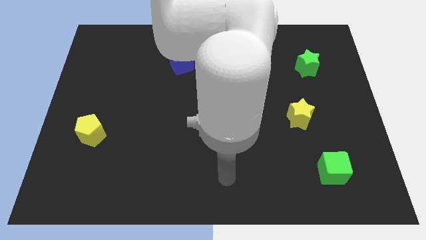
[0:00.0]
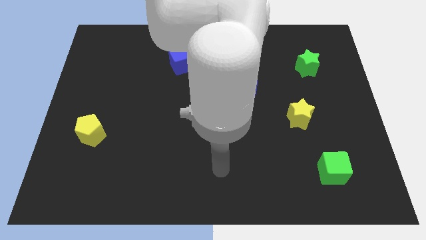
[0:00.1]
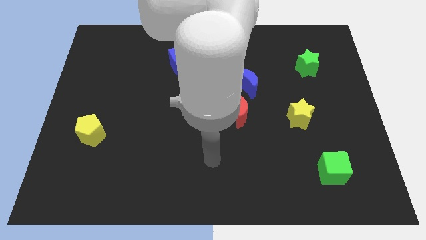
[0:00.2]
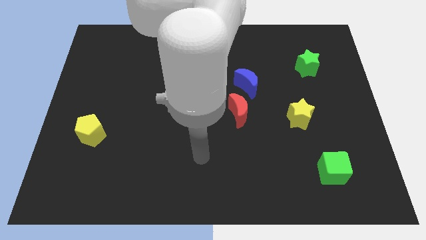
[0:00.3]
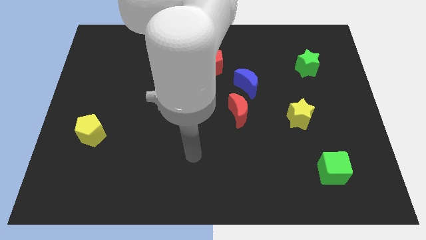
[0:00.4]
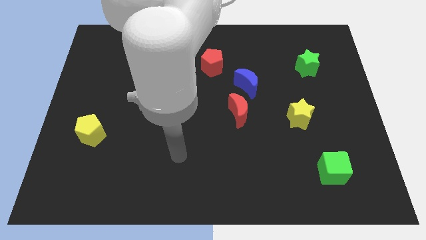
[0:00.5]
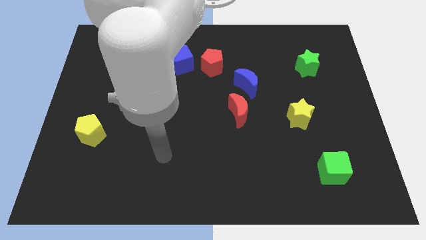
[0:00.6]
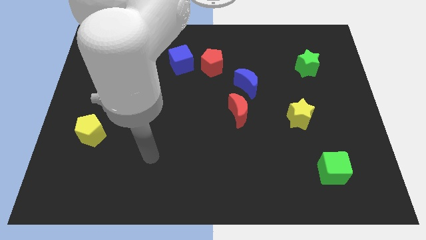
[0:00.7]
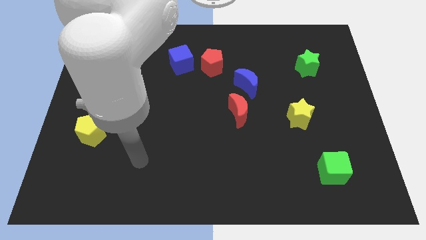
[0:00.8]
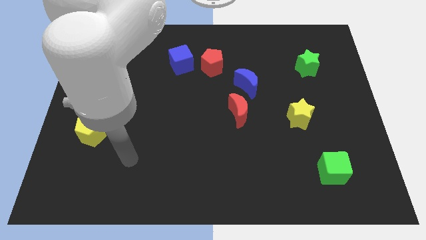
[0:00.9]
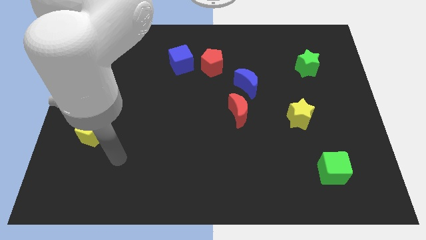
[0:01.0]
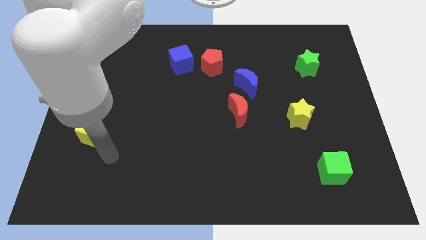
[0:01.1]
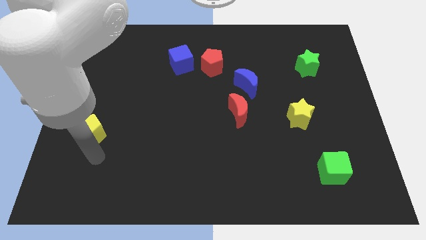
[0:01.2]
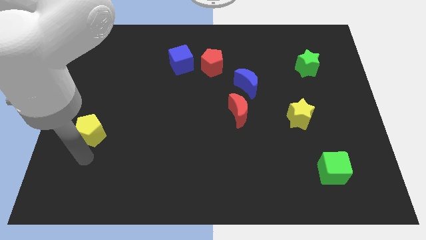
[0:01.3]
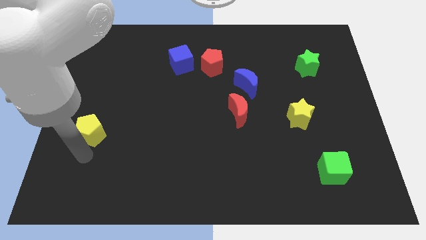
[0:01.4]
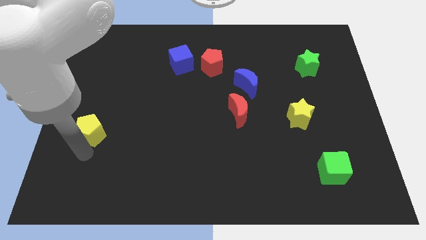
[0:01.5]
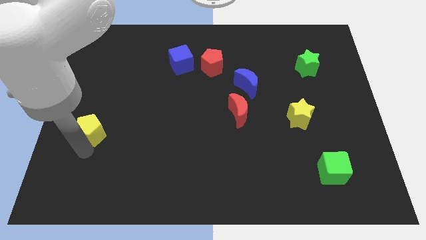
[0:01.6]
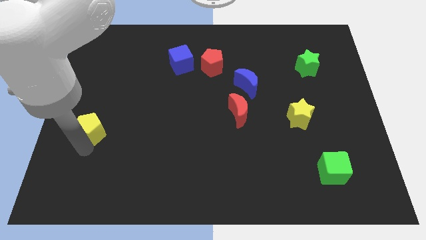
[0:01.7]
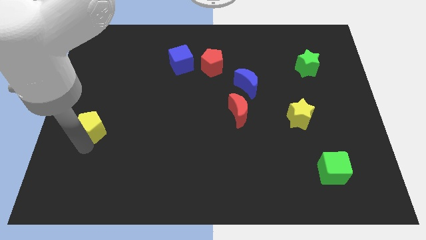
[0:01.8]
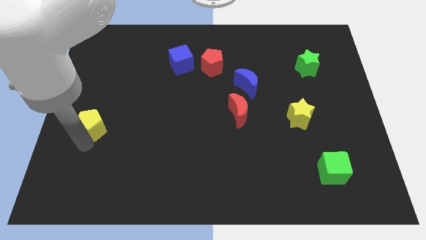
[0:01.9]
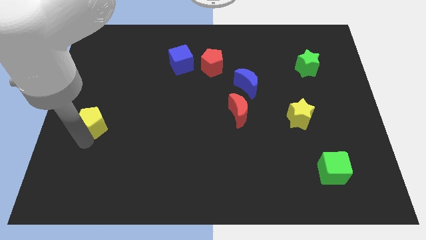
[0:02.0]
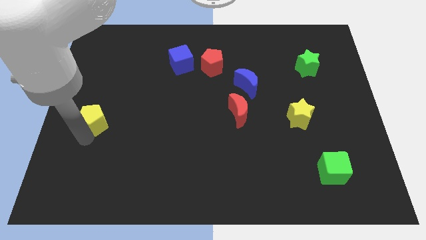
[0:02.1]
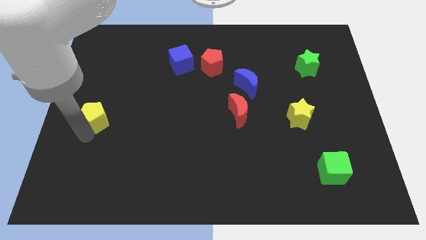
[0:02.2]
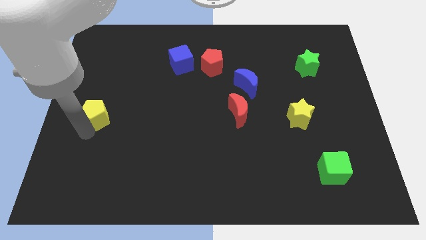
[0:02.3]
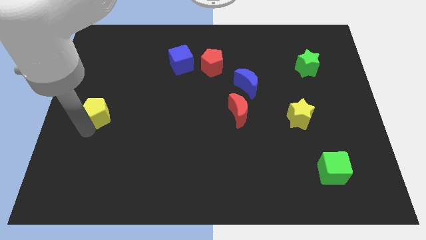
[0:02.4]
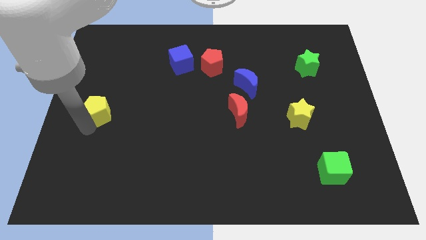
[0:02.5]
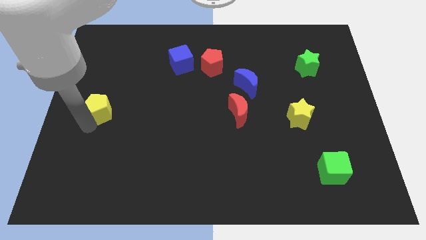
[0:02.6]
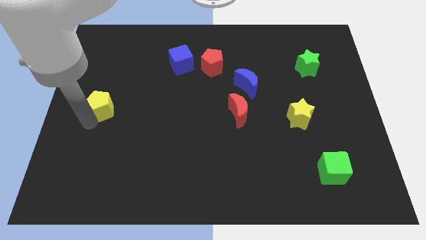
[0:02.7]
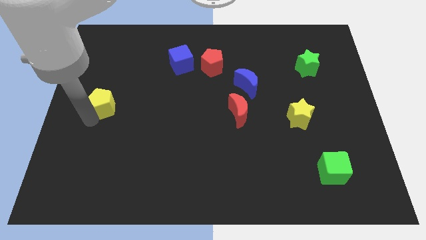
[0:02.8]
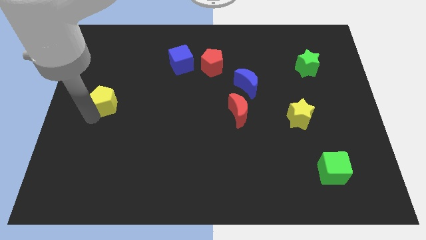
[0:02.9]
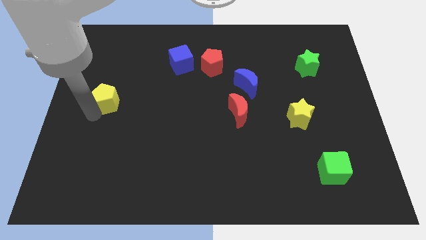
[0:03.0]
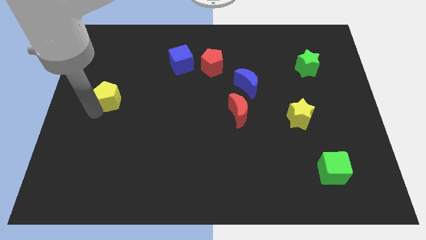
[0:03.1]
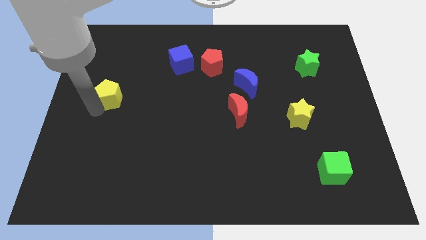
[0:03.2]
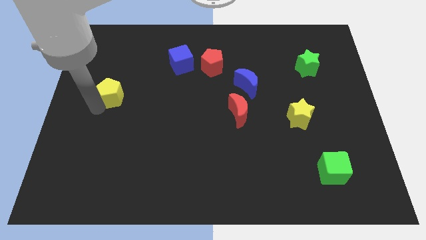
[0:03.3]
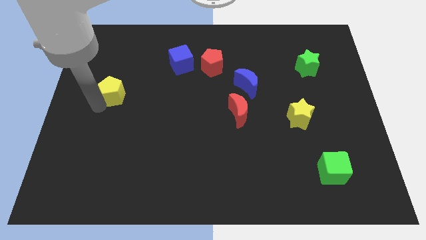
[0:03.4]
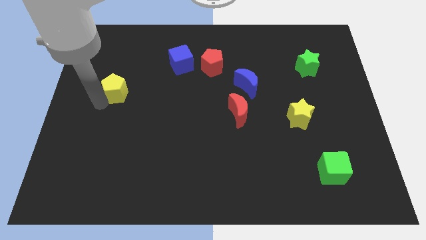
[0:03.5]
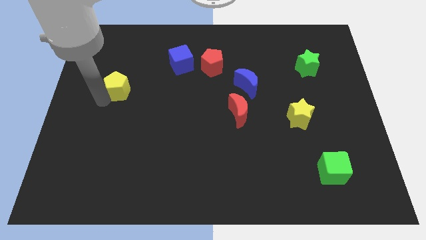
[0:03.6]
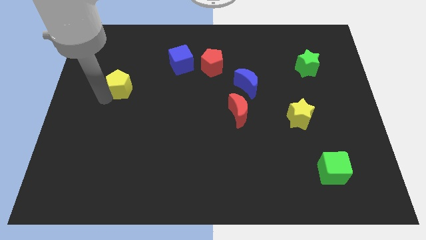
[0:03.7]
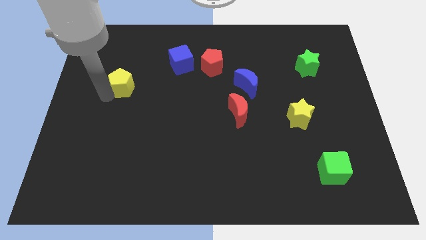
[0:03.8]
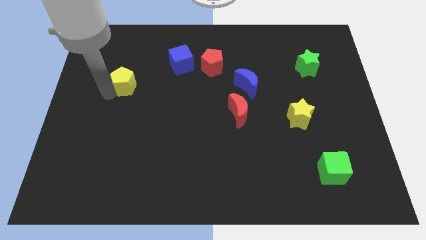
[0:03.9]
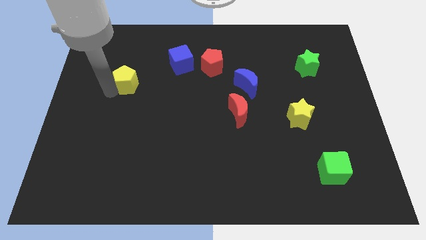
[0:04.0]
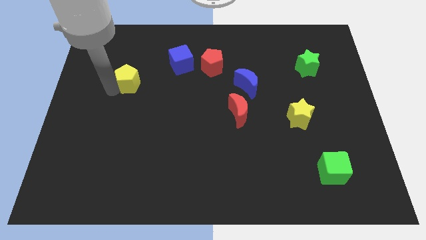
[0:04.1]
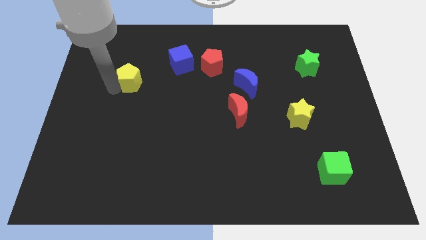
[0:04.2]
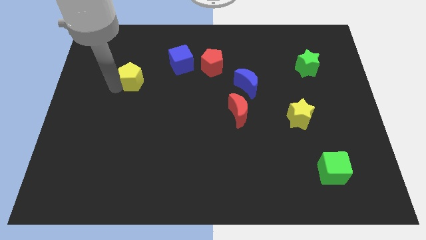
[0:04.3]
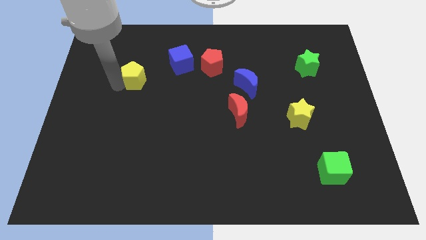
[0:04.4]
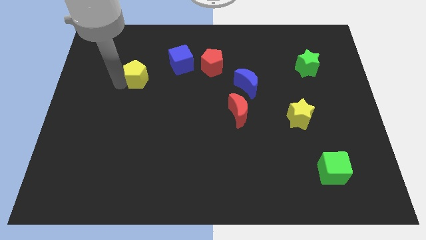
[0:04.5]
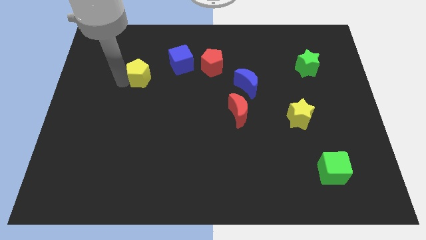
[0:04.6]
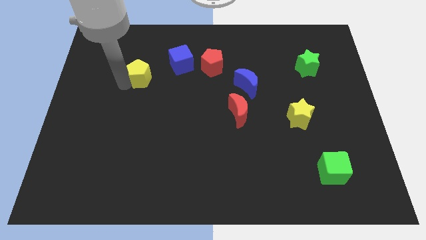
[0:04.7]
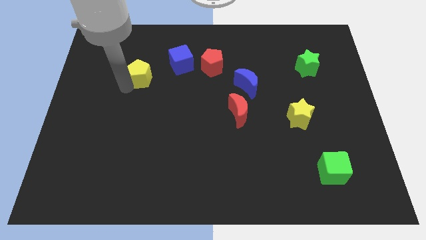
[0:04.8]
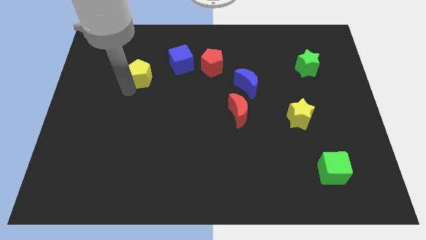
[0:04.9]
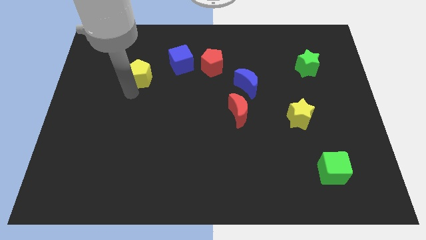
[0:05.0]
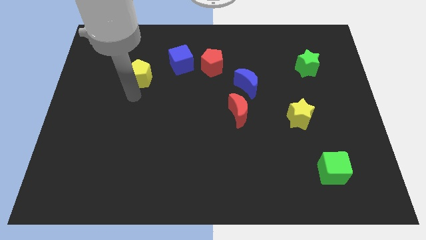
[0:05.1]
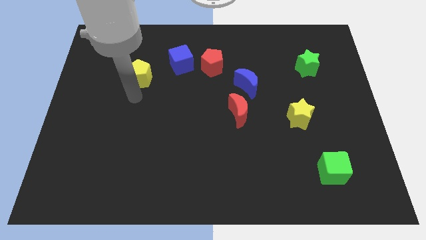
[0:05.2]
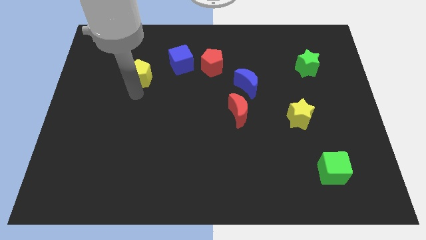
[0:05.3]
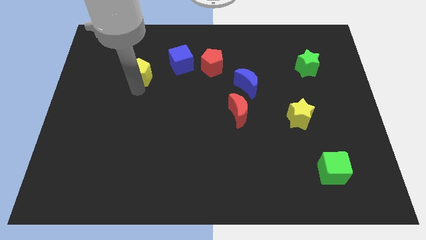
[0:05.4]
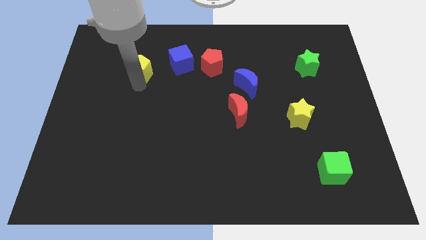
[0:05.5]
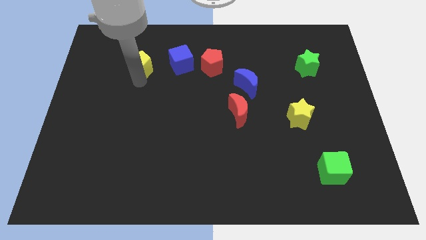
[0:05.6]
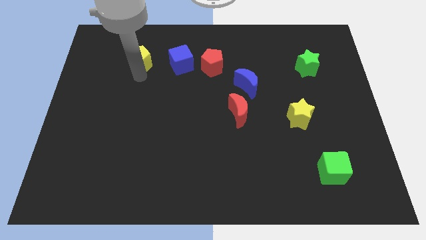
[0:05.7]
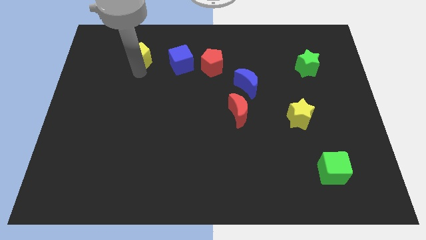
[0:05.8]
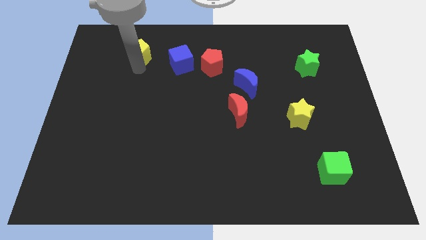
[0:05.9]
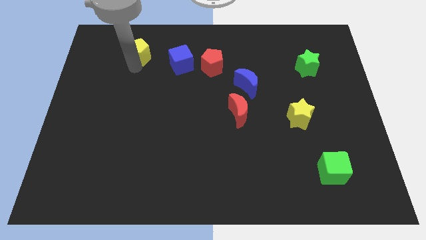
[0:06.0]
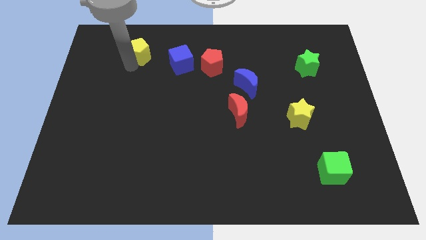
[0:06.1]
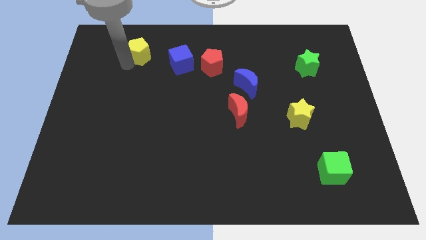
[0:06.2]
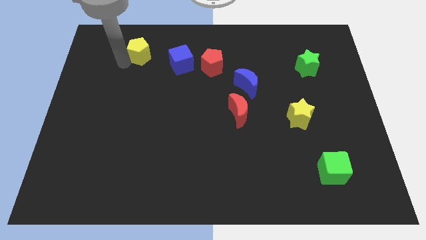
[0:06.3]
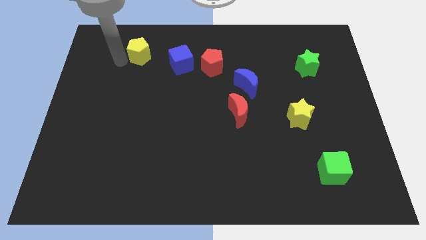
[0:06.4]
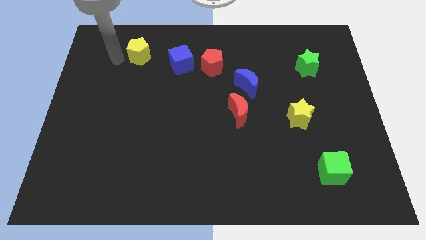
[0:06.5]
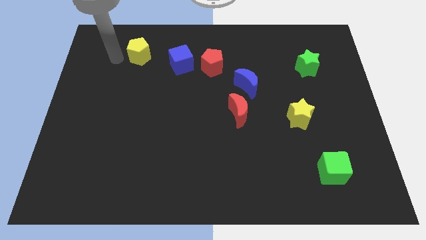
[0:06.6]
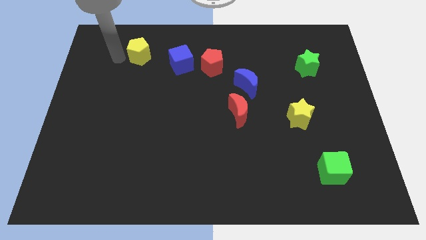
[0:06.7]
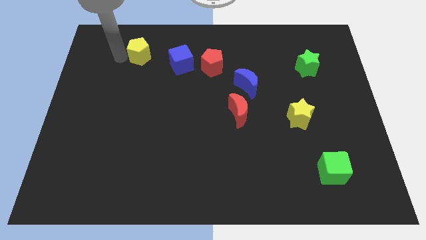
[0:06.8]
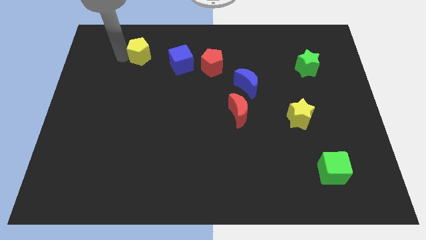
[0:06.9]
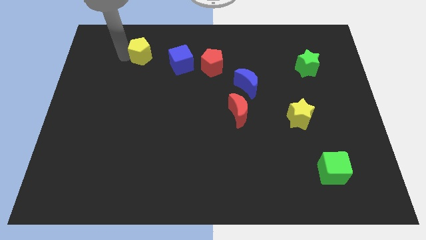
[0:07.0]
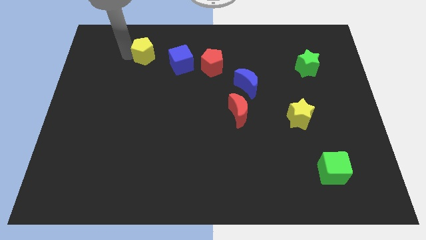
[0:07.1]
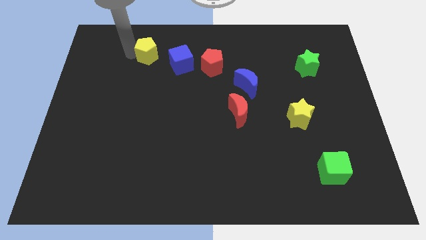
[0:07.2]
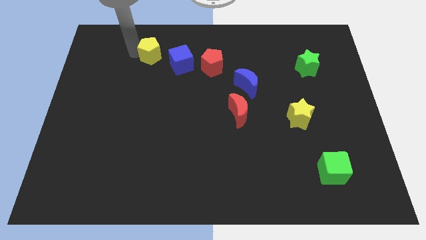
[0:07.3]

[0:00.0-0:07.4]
move the yellow pentagon up and right

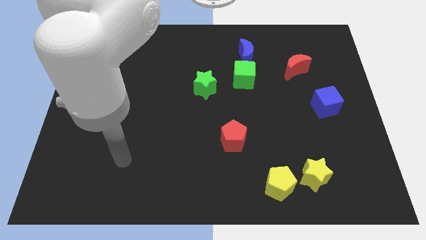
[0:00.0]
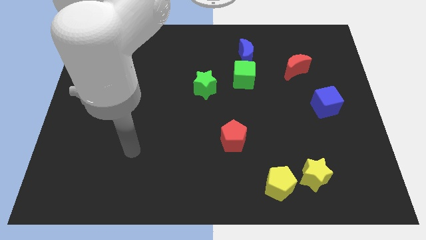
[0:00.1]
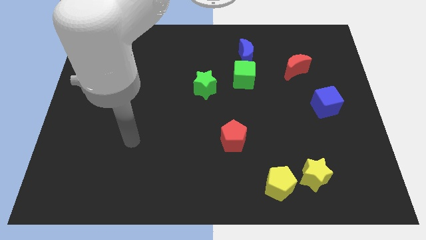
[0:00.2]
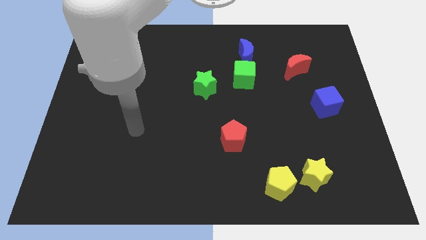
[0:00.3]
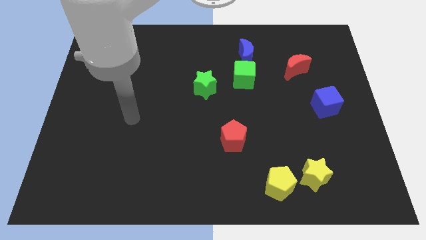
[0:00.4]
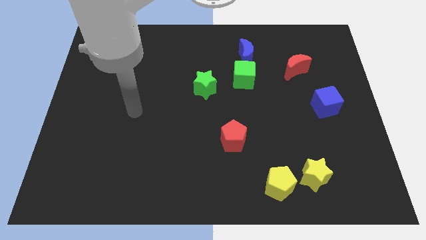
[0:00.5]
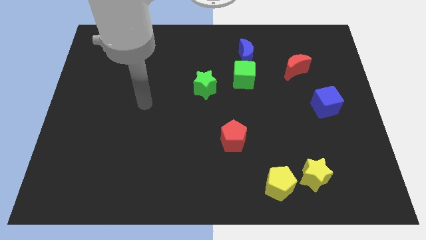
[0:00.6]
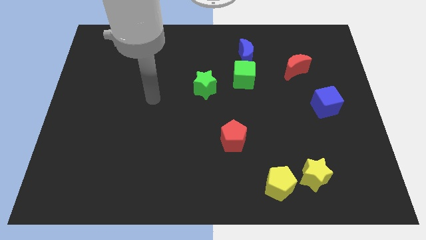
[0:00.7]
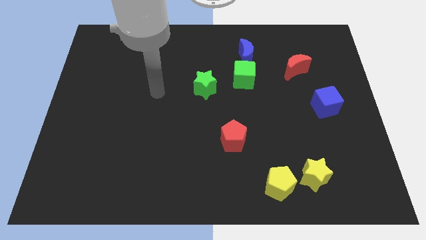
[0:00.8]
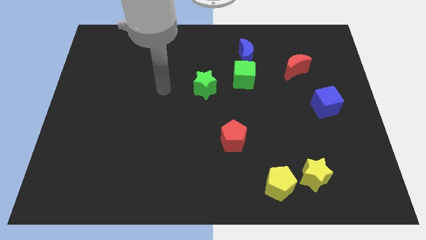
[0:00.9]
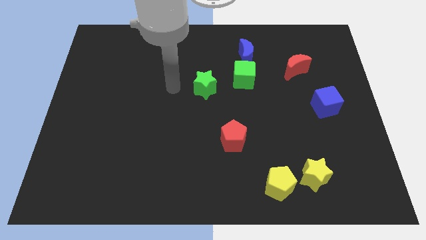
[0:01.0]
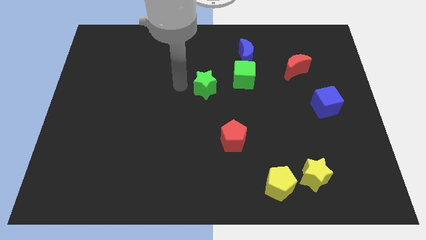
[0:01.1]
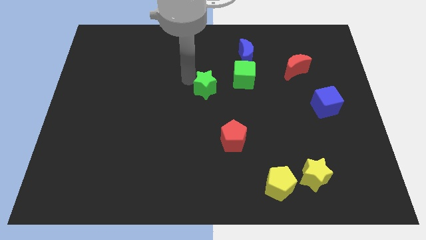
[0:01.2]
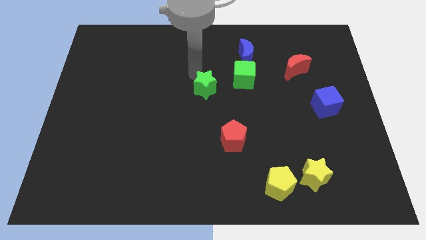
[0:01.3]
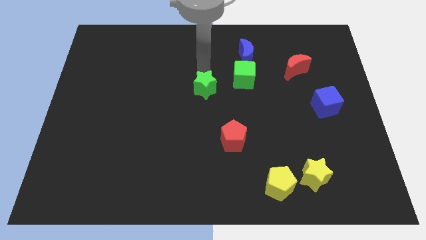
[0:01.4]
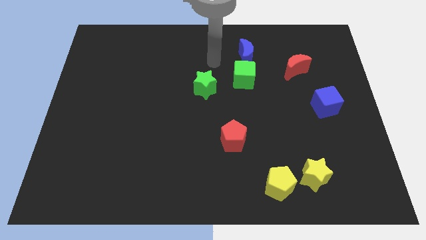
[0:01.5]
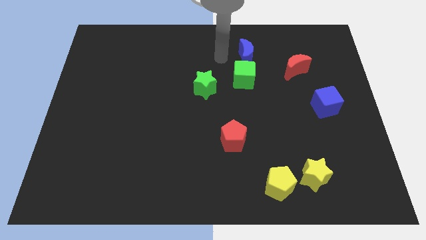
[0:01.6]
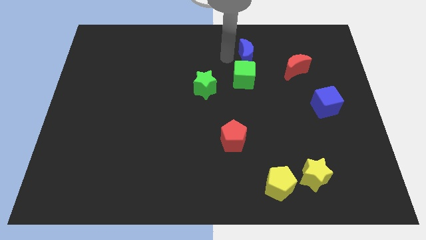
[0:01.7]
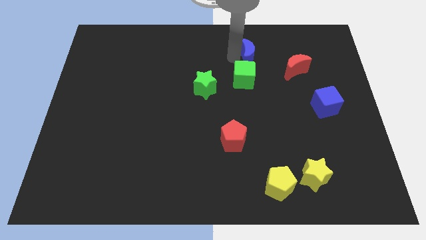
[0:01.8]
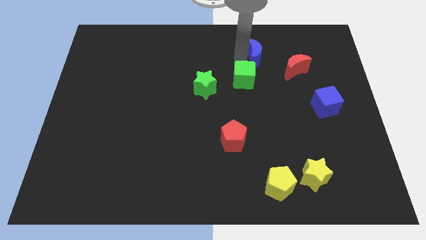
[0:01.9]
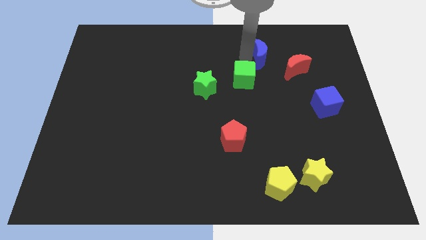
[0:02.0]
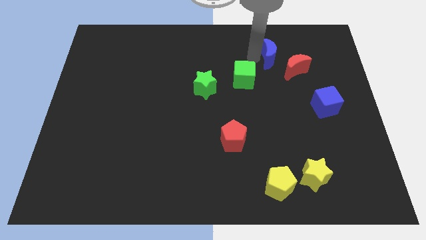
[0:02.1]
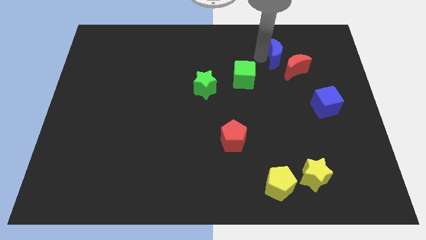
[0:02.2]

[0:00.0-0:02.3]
slide the blue moon right a little bit
